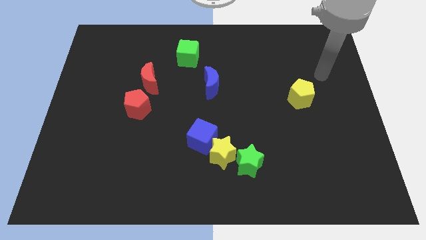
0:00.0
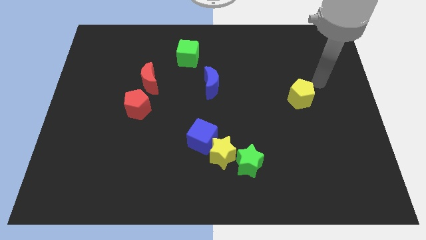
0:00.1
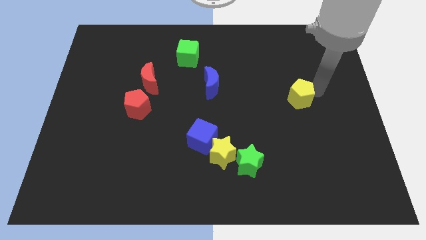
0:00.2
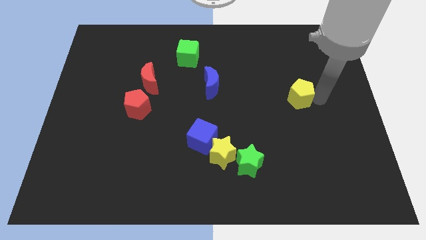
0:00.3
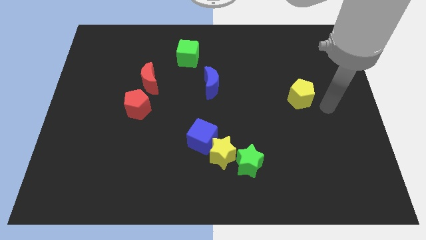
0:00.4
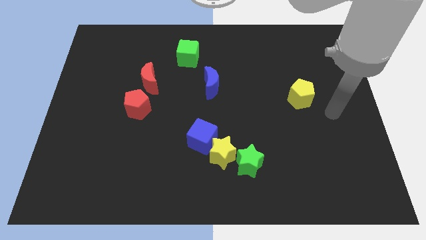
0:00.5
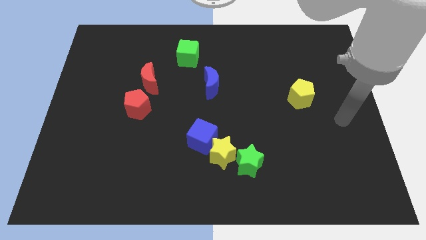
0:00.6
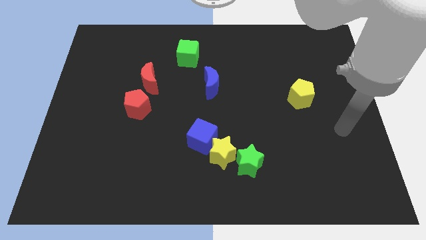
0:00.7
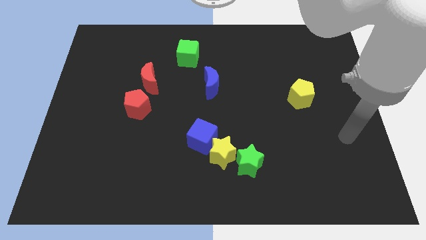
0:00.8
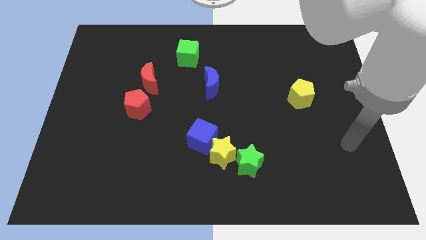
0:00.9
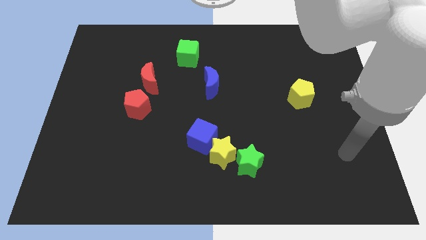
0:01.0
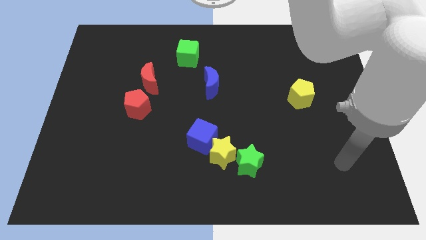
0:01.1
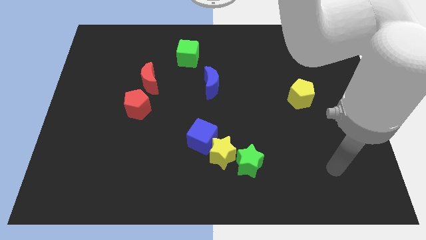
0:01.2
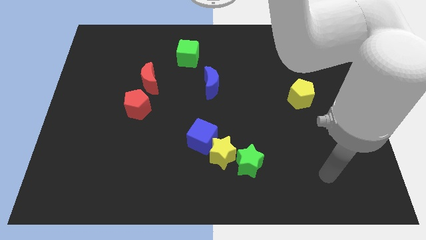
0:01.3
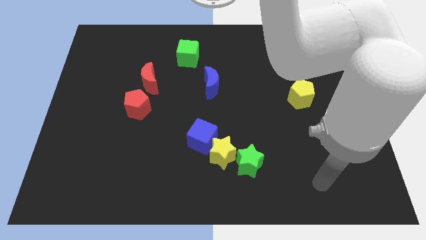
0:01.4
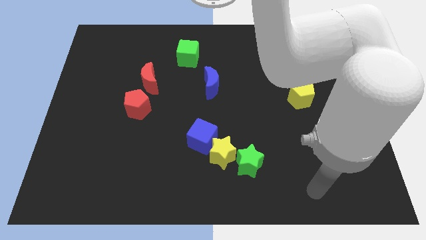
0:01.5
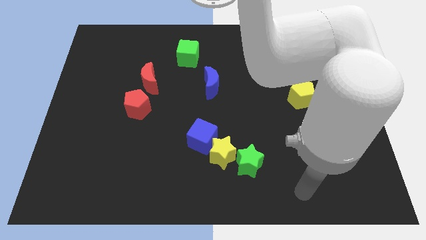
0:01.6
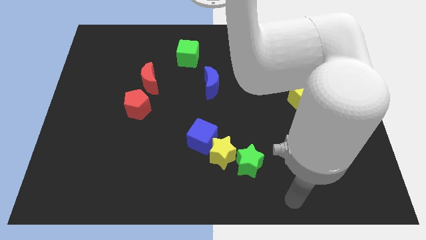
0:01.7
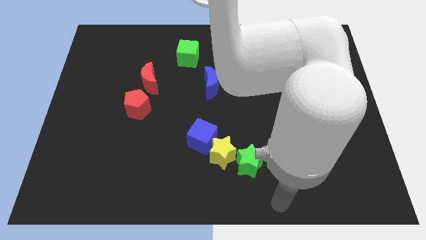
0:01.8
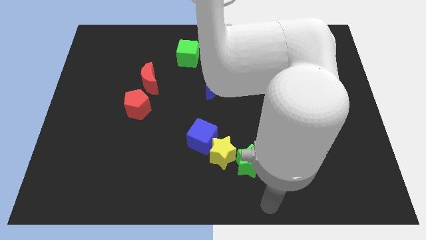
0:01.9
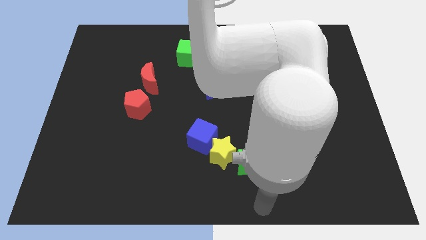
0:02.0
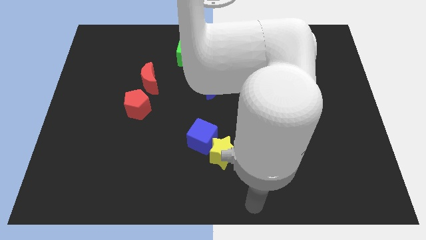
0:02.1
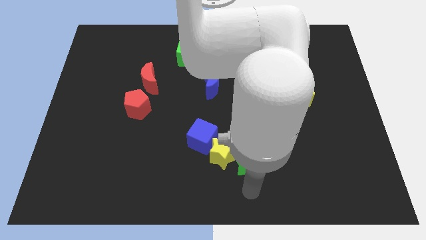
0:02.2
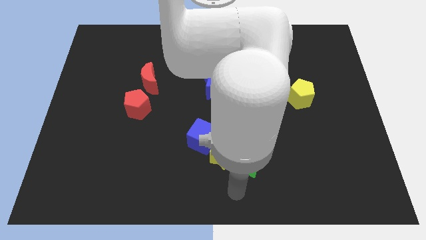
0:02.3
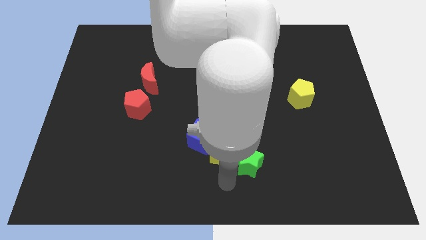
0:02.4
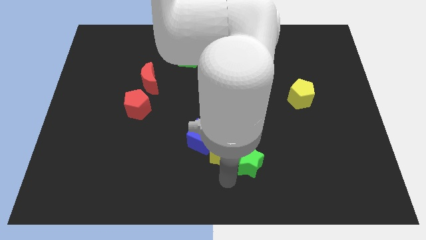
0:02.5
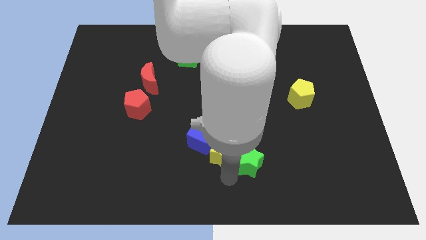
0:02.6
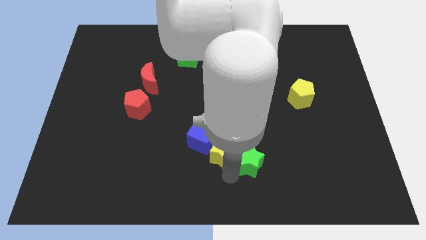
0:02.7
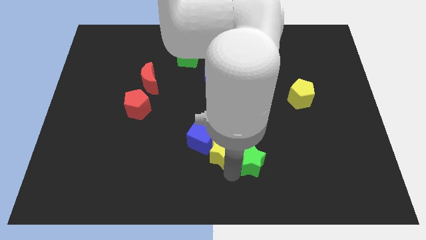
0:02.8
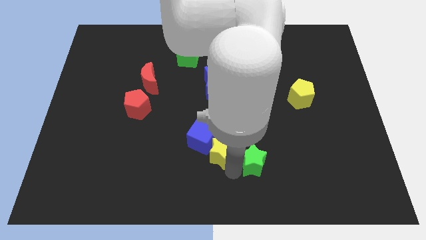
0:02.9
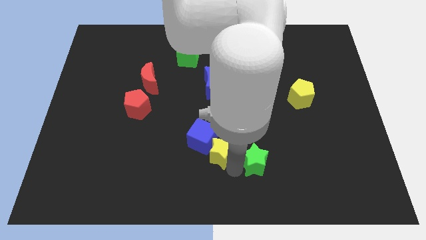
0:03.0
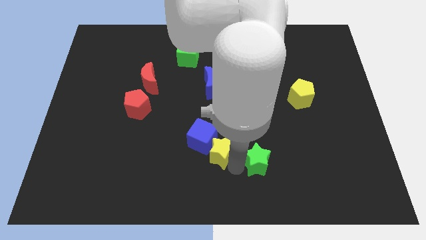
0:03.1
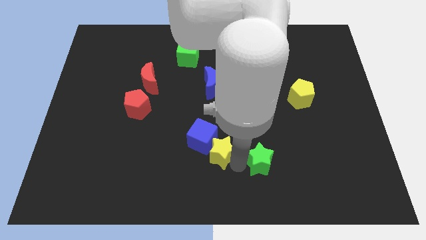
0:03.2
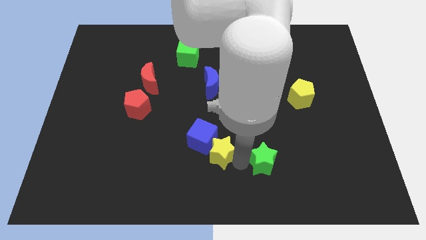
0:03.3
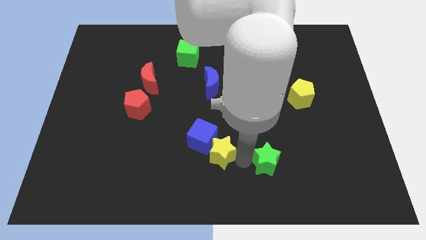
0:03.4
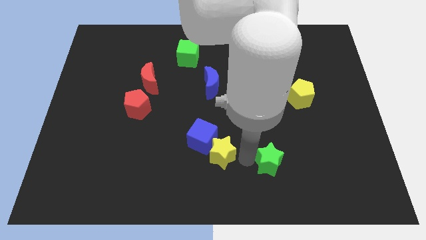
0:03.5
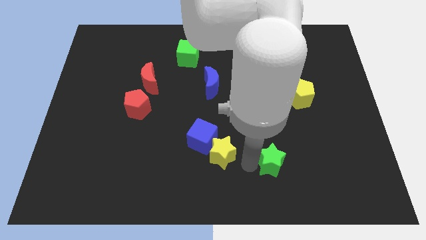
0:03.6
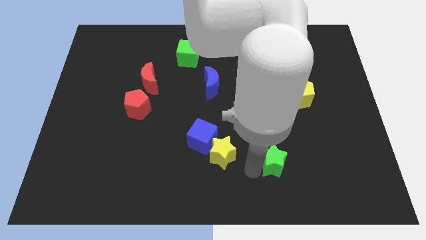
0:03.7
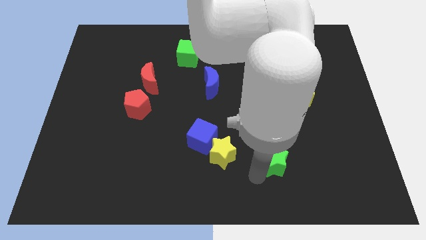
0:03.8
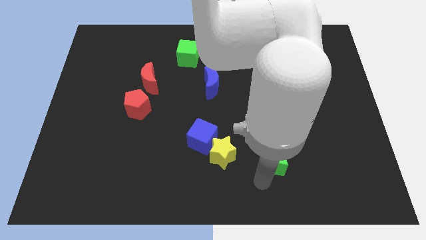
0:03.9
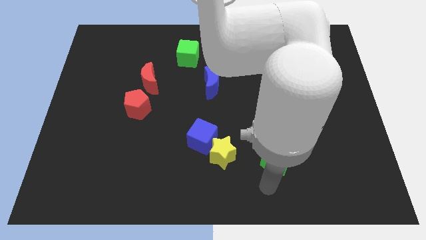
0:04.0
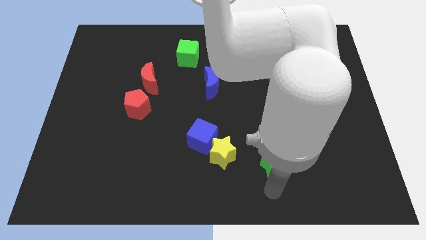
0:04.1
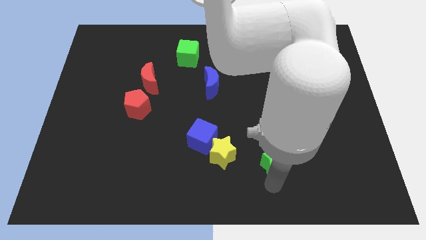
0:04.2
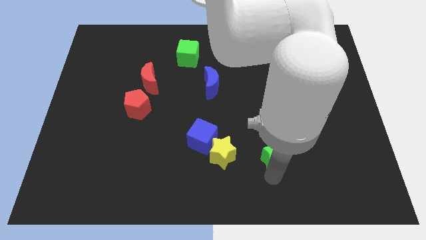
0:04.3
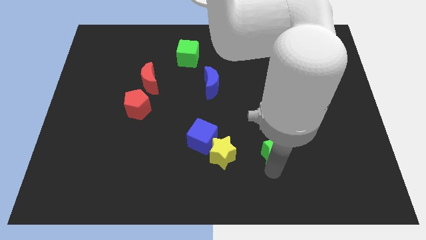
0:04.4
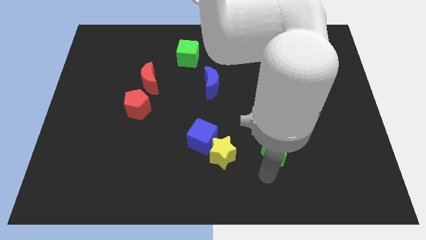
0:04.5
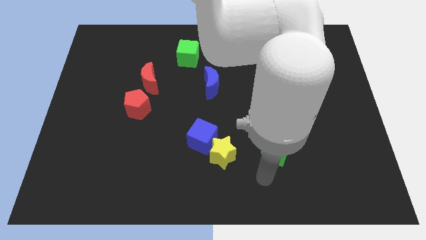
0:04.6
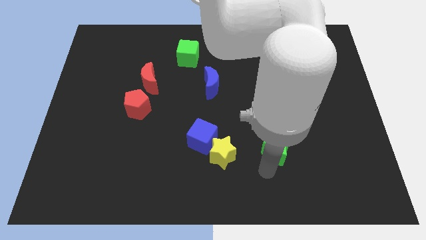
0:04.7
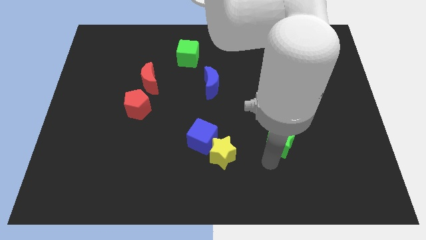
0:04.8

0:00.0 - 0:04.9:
slide the green star slightly diagonally upwards and right

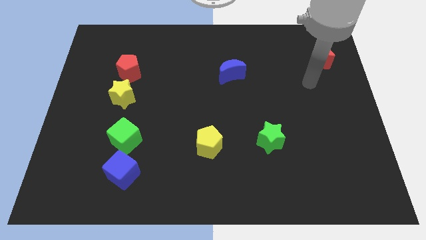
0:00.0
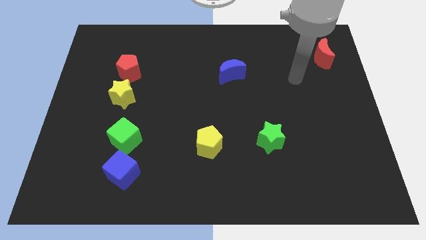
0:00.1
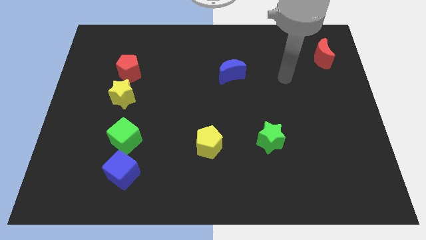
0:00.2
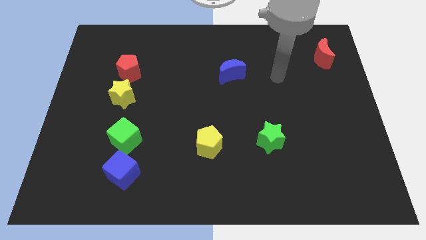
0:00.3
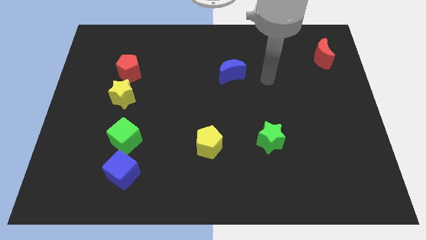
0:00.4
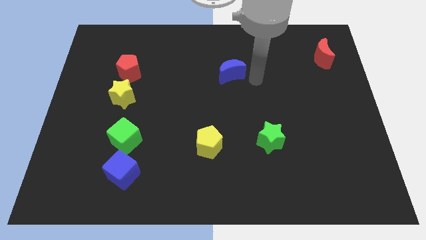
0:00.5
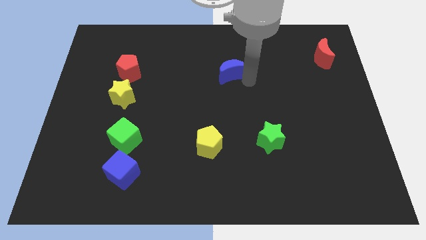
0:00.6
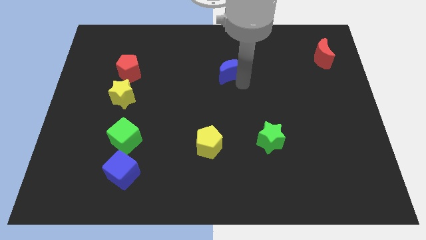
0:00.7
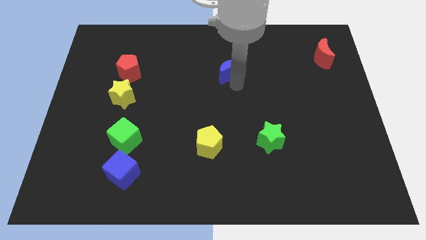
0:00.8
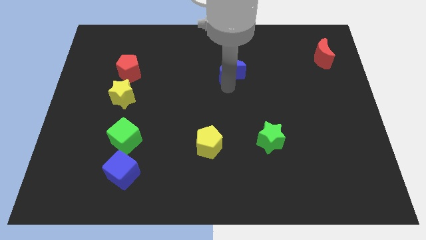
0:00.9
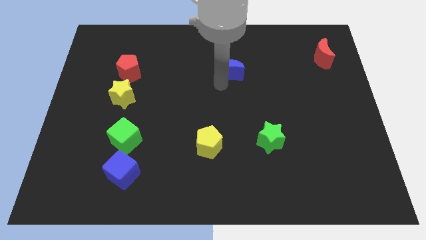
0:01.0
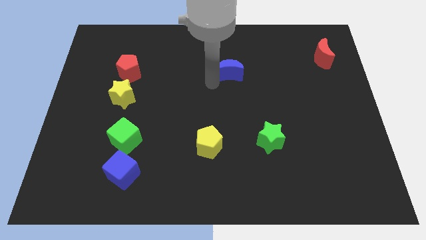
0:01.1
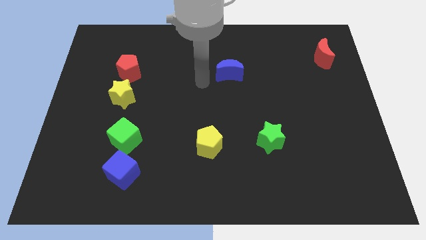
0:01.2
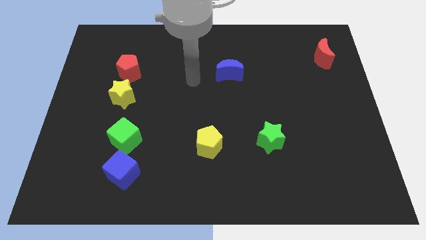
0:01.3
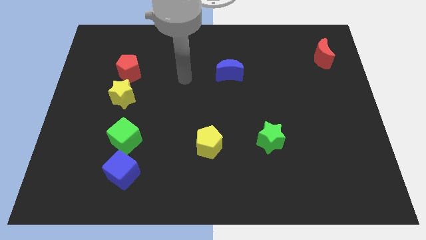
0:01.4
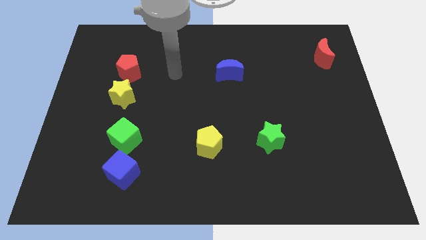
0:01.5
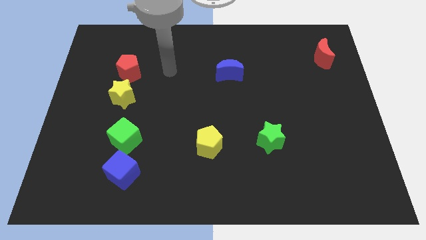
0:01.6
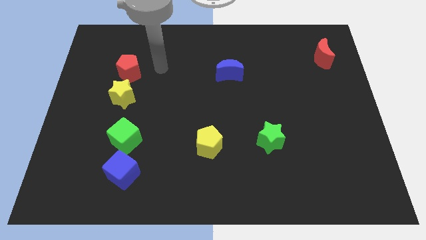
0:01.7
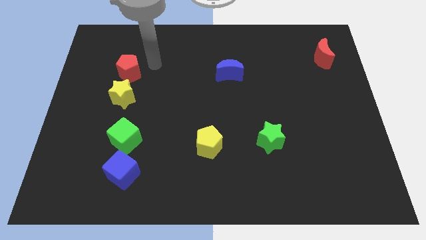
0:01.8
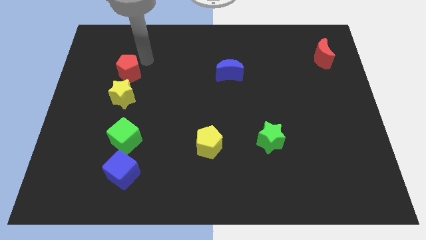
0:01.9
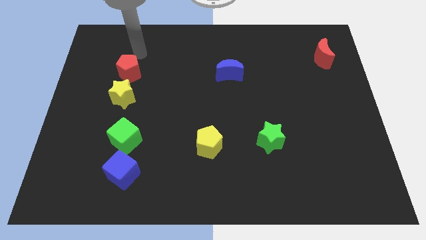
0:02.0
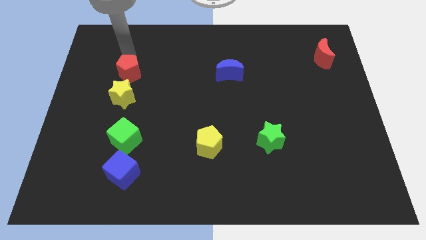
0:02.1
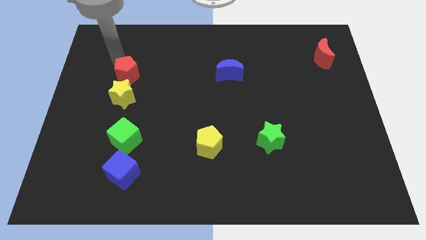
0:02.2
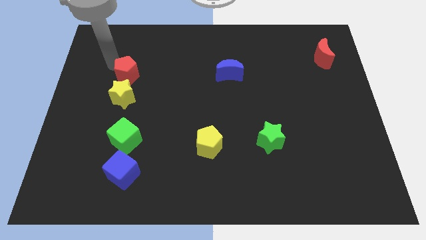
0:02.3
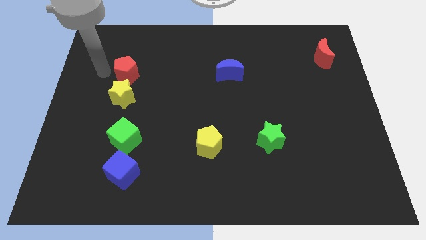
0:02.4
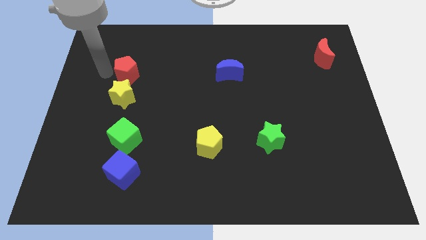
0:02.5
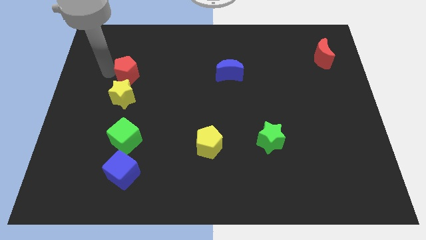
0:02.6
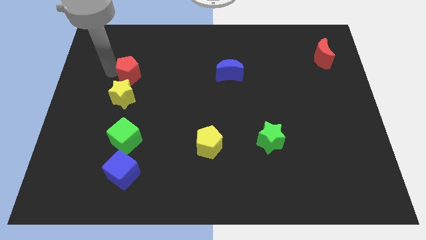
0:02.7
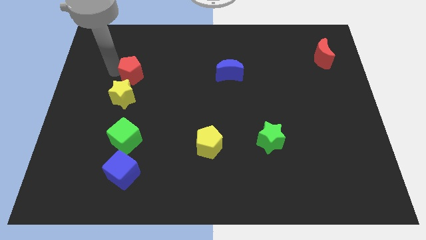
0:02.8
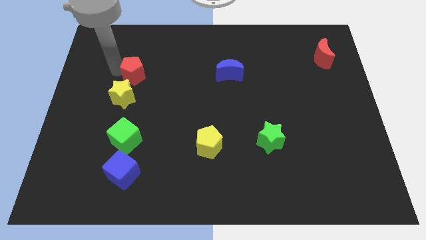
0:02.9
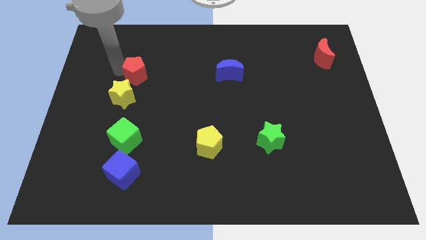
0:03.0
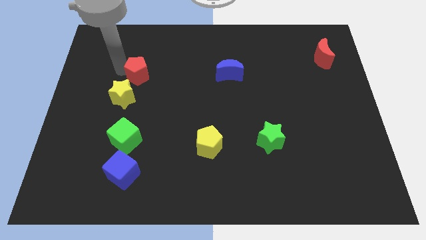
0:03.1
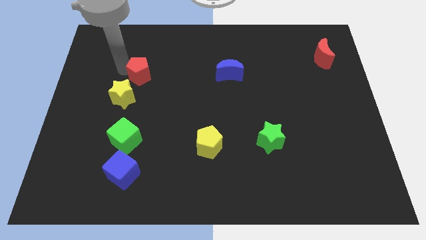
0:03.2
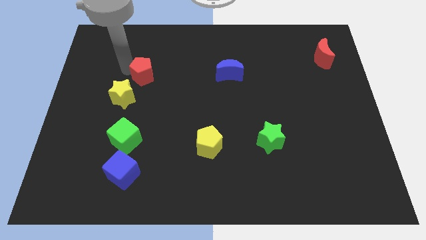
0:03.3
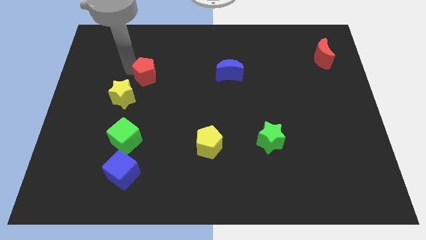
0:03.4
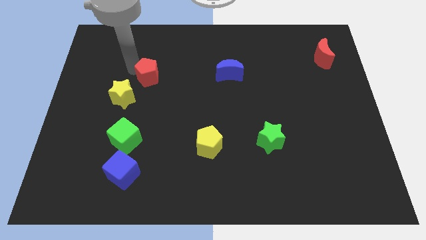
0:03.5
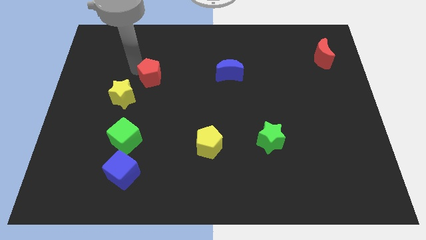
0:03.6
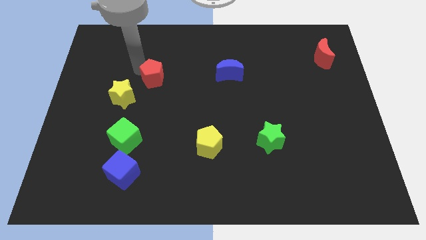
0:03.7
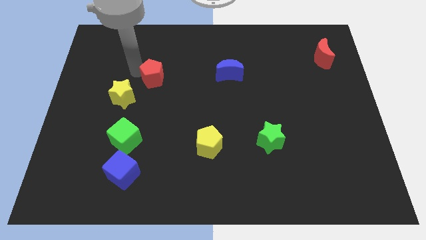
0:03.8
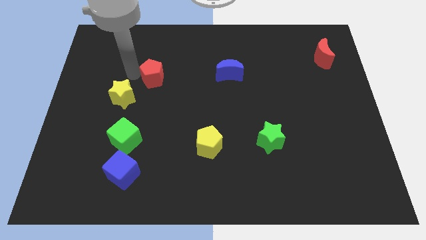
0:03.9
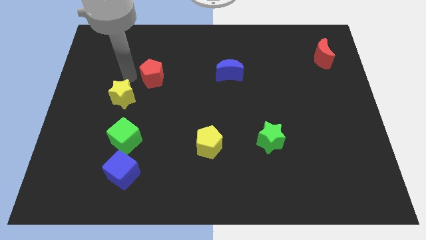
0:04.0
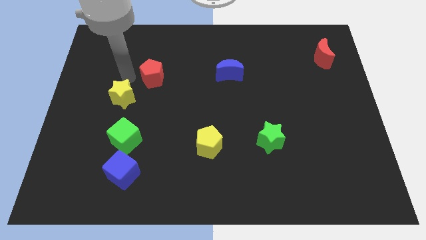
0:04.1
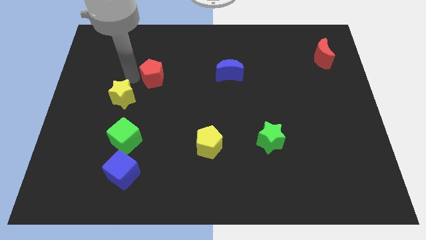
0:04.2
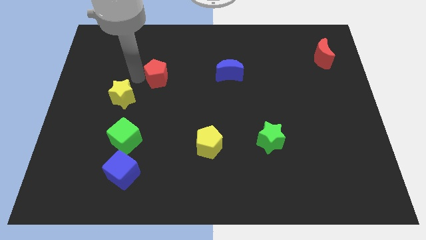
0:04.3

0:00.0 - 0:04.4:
slightly push the red pentagon right
